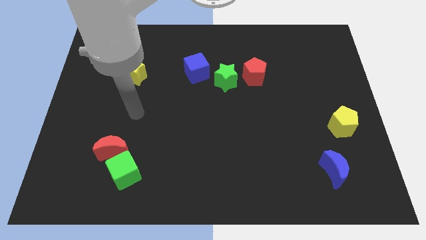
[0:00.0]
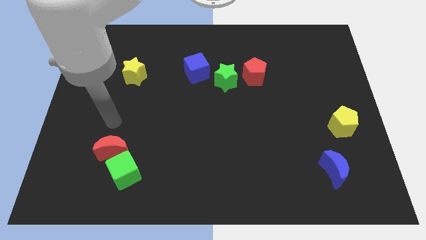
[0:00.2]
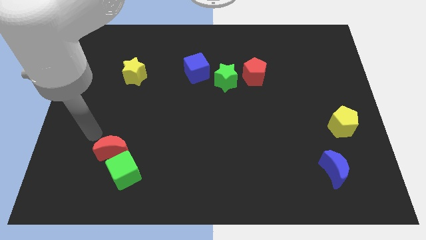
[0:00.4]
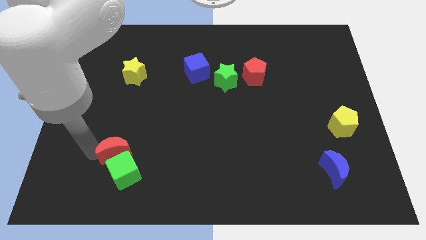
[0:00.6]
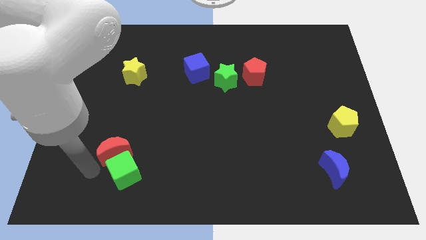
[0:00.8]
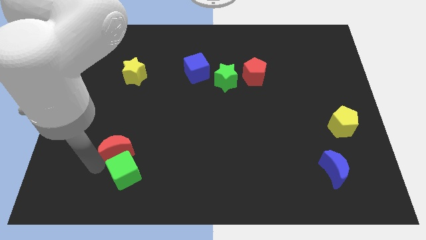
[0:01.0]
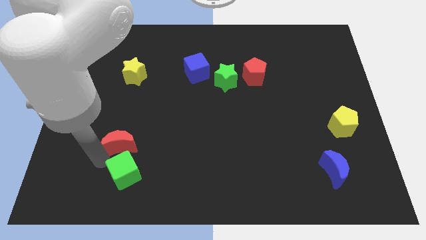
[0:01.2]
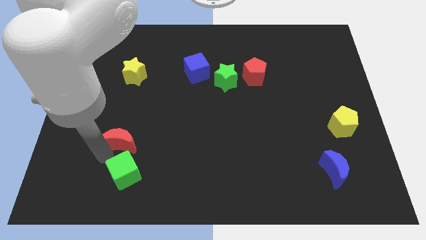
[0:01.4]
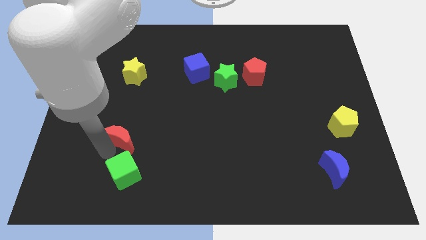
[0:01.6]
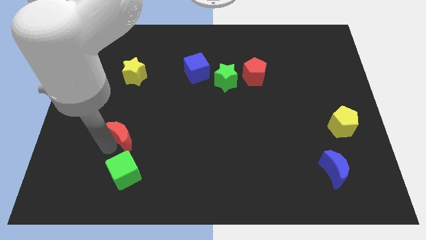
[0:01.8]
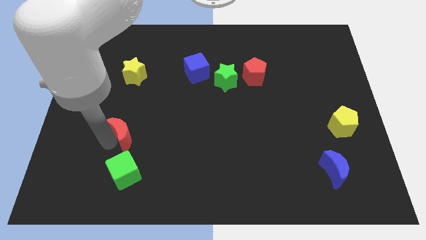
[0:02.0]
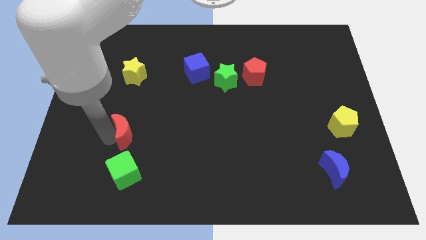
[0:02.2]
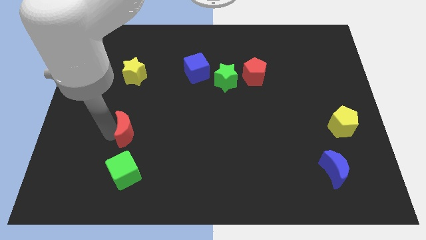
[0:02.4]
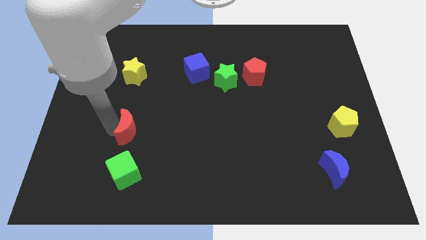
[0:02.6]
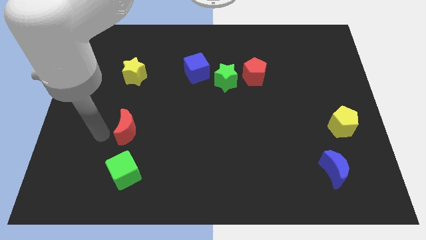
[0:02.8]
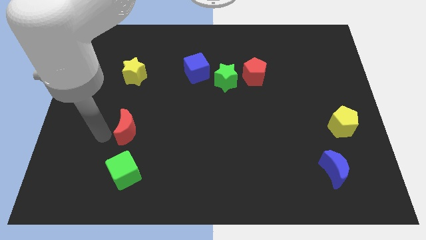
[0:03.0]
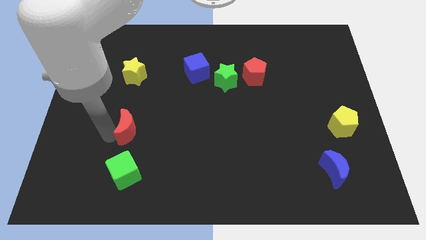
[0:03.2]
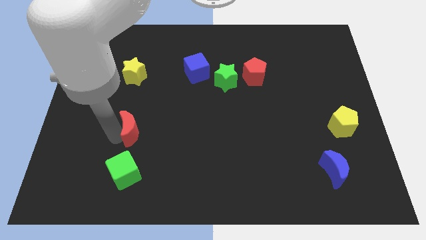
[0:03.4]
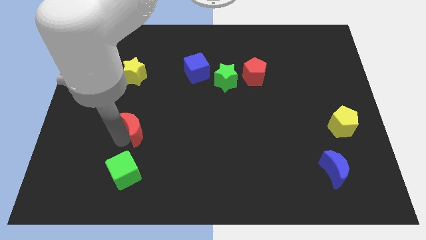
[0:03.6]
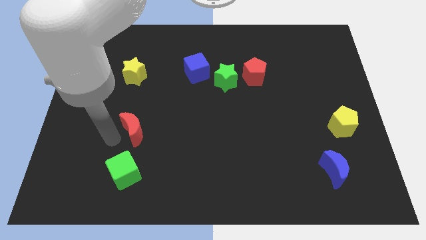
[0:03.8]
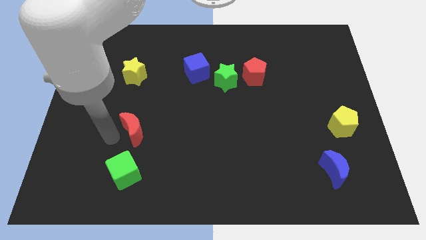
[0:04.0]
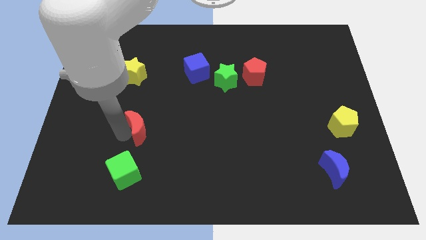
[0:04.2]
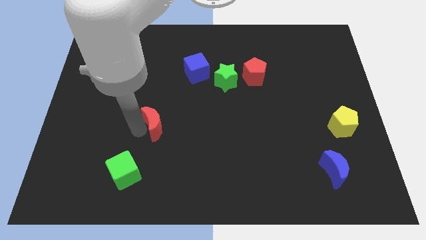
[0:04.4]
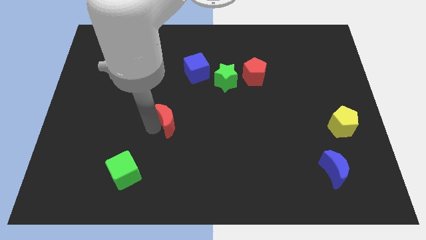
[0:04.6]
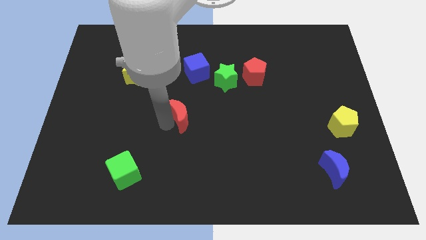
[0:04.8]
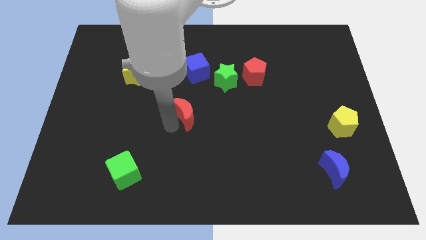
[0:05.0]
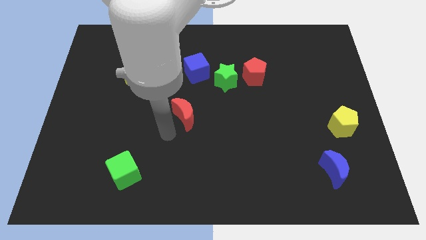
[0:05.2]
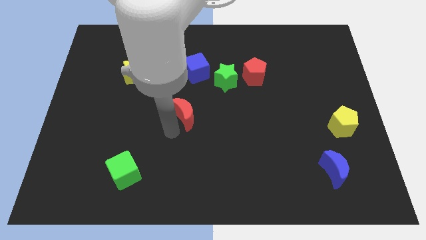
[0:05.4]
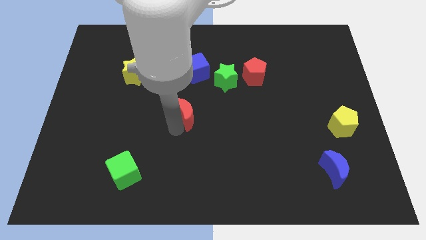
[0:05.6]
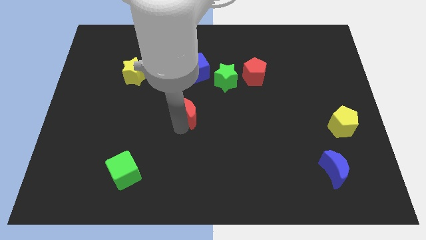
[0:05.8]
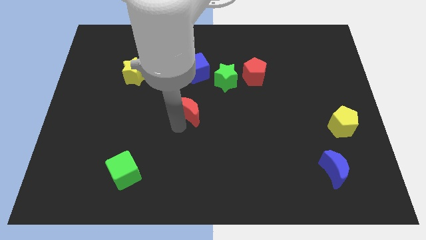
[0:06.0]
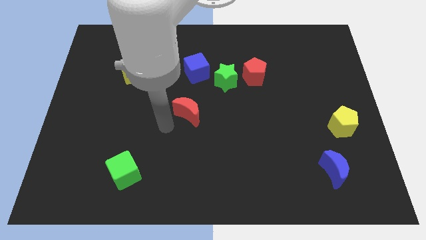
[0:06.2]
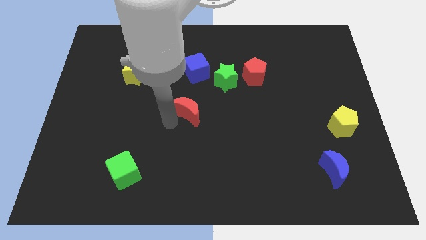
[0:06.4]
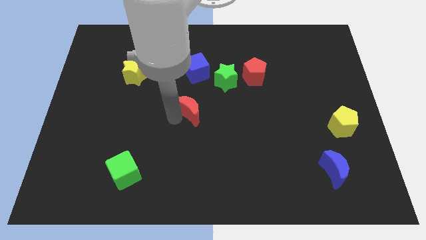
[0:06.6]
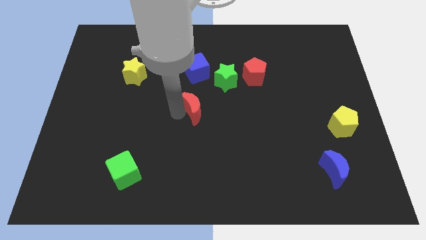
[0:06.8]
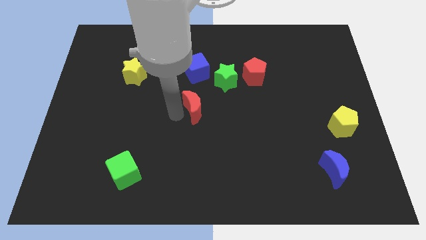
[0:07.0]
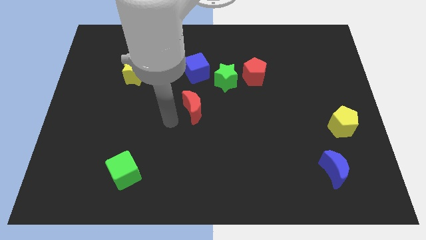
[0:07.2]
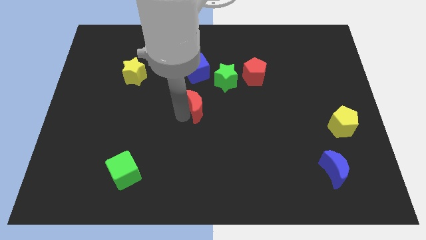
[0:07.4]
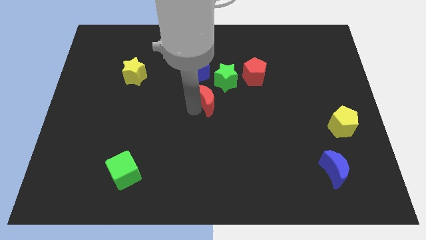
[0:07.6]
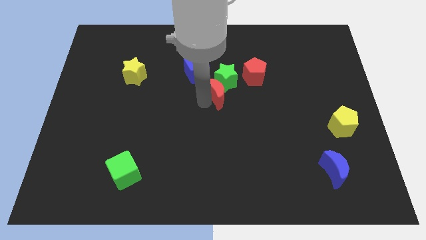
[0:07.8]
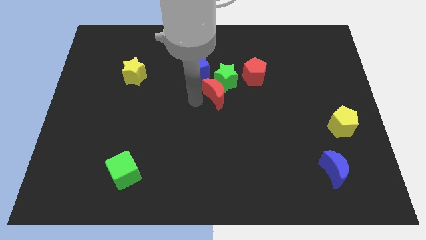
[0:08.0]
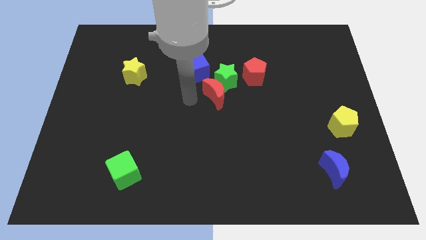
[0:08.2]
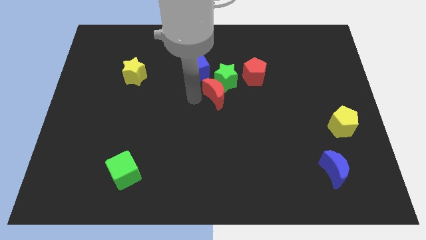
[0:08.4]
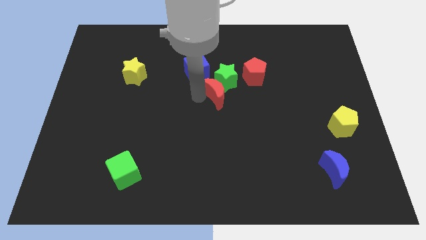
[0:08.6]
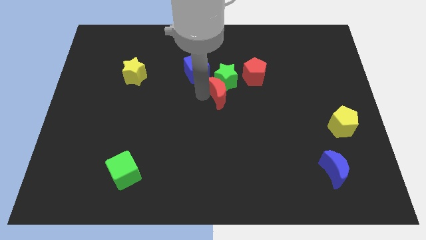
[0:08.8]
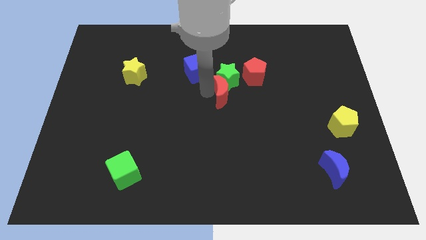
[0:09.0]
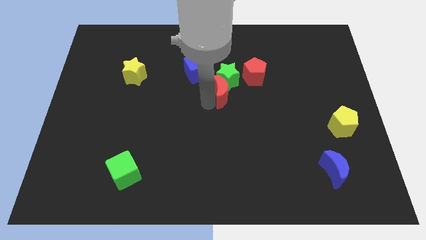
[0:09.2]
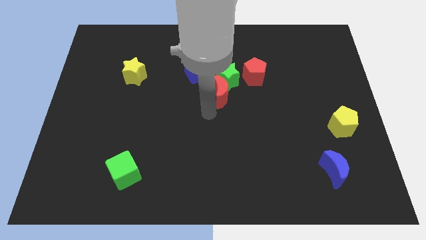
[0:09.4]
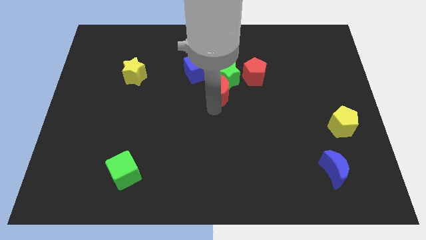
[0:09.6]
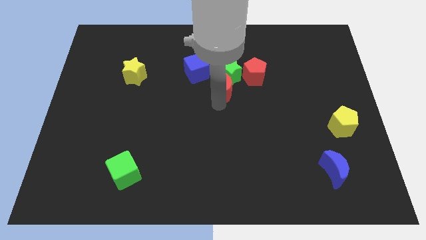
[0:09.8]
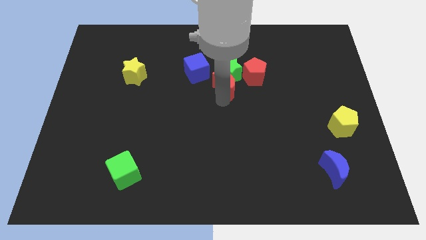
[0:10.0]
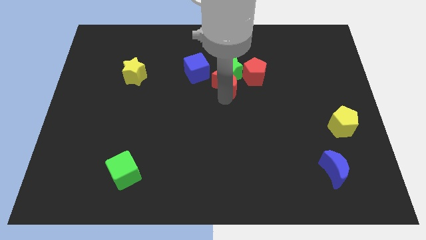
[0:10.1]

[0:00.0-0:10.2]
put the red moon to the right of the blue cube

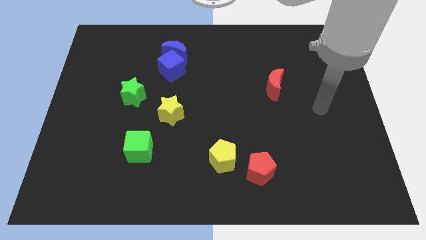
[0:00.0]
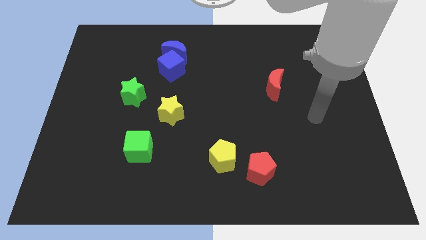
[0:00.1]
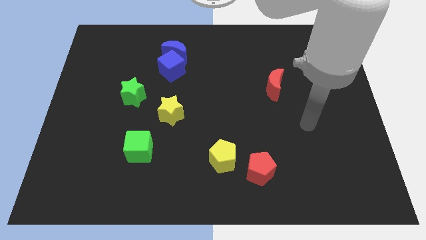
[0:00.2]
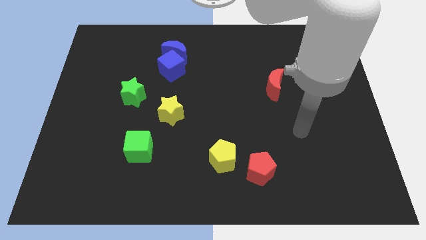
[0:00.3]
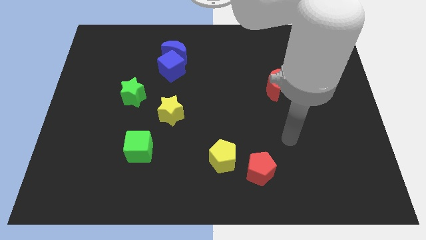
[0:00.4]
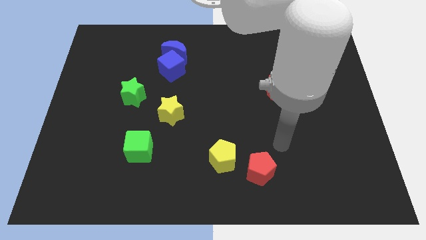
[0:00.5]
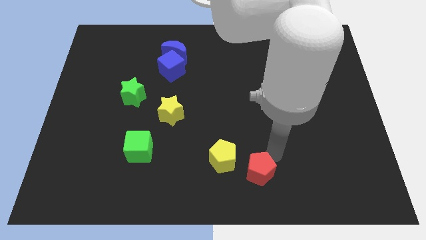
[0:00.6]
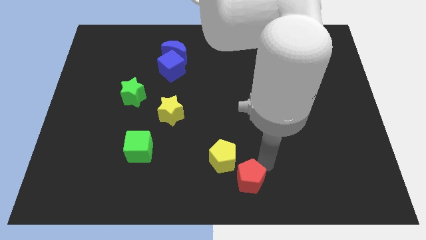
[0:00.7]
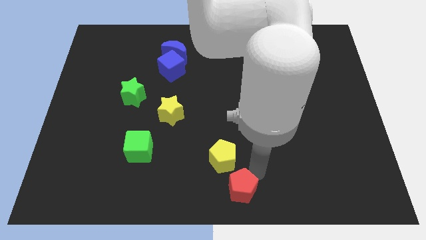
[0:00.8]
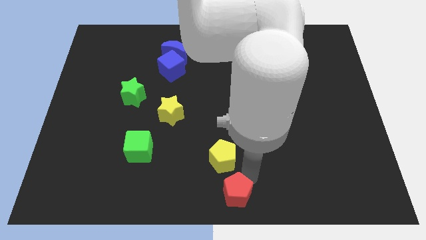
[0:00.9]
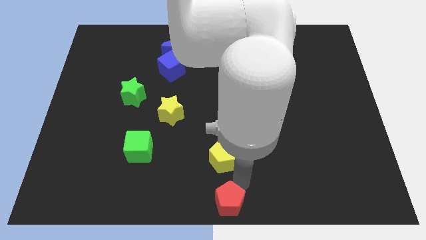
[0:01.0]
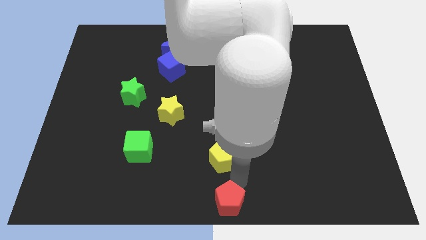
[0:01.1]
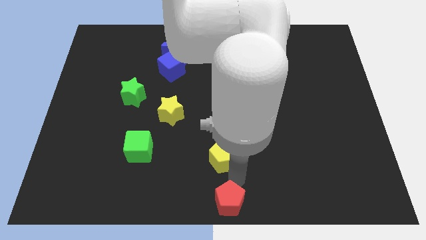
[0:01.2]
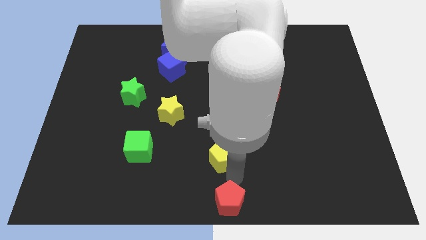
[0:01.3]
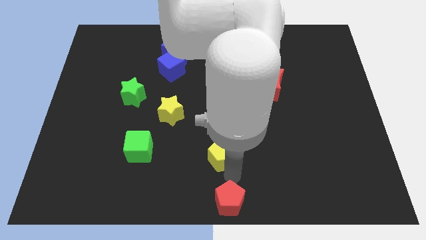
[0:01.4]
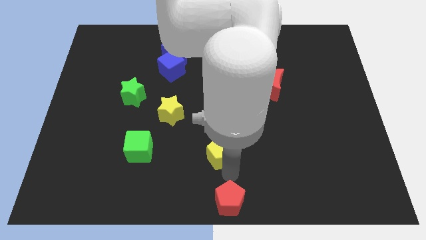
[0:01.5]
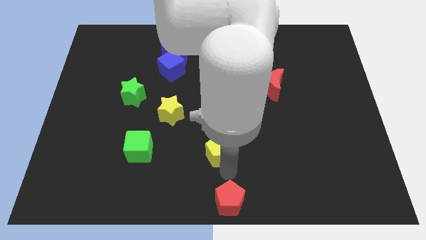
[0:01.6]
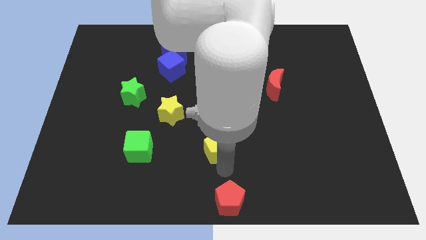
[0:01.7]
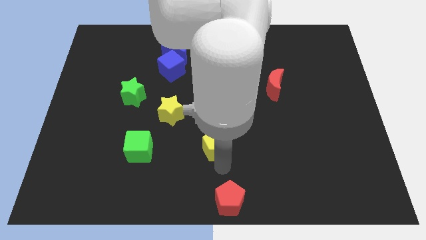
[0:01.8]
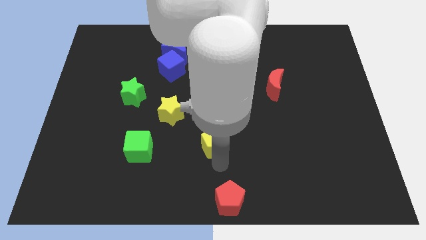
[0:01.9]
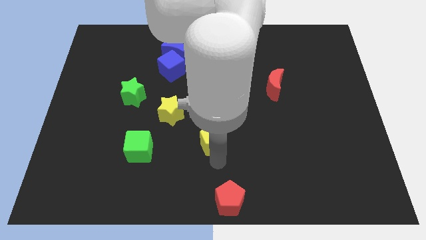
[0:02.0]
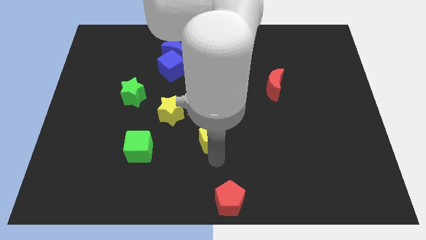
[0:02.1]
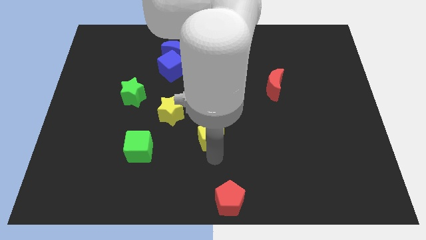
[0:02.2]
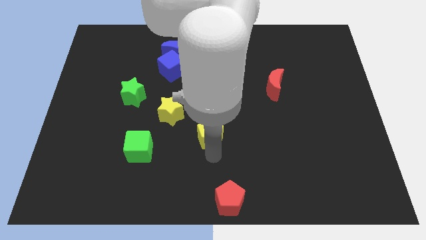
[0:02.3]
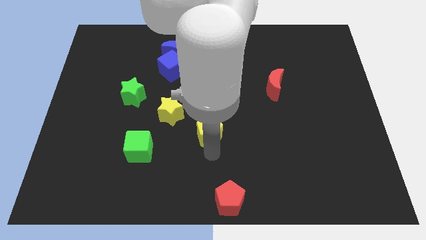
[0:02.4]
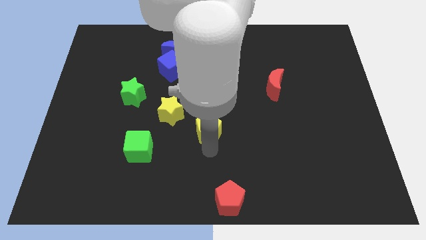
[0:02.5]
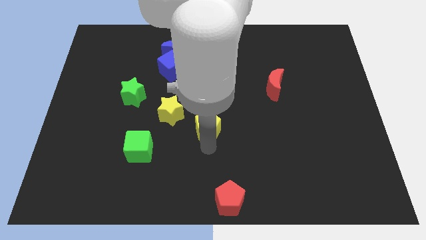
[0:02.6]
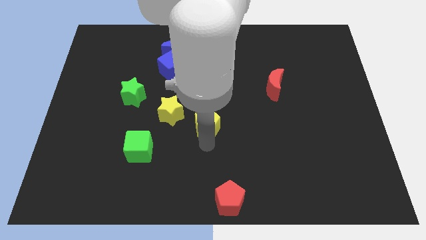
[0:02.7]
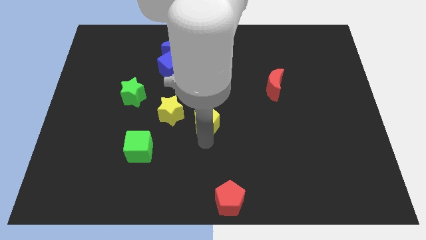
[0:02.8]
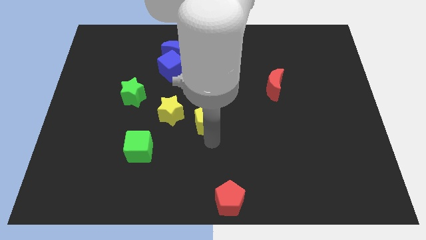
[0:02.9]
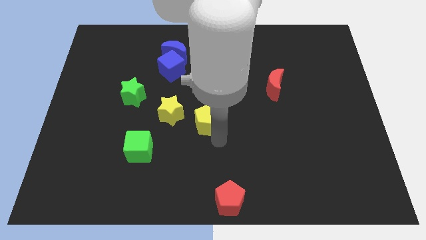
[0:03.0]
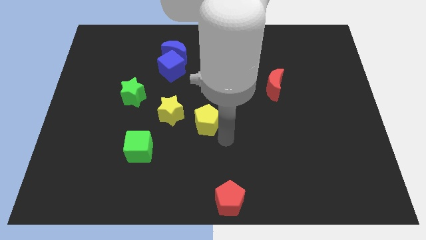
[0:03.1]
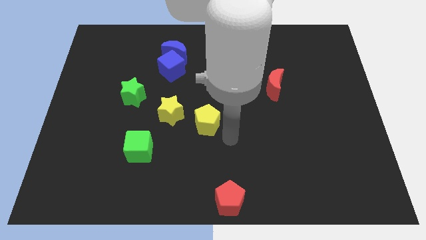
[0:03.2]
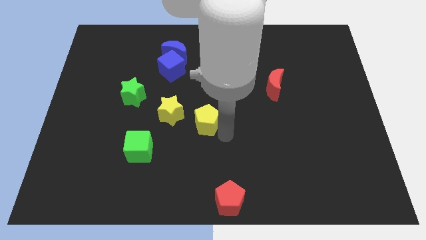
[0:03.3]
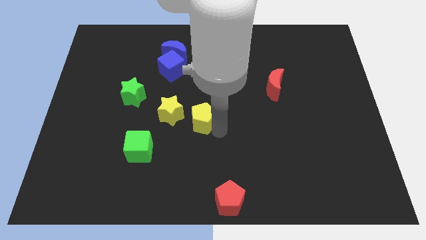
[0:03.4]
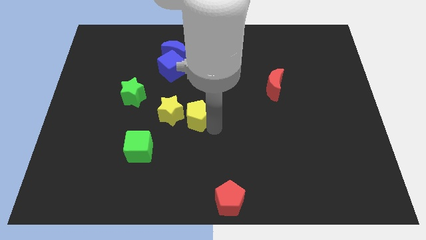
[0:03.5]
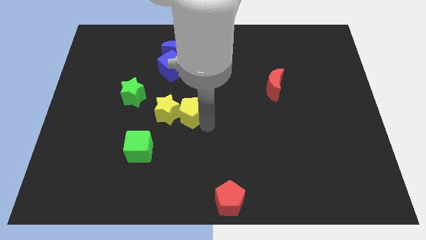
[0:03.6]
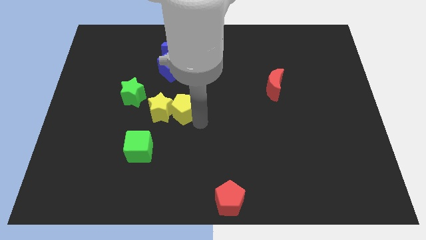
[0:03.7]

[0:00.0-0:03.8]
put the yellow pentagon to the bottom of the blue cube
